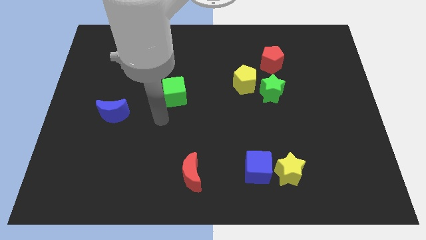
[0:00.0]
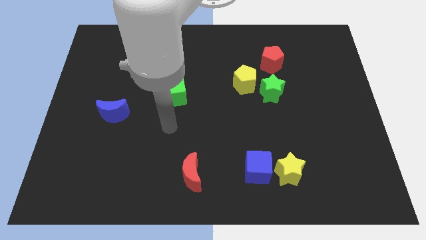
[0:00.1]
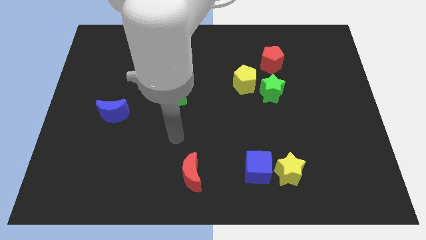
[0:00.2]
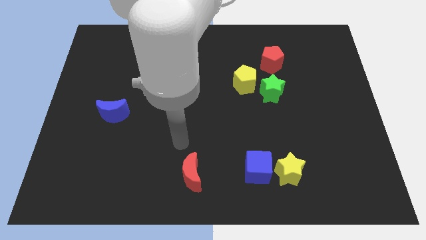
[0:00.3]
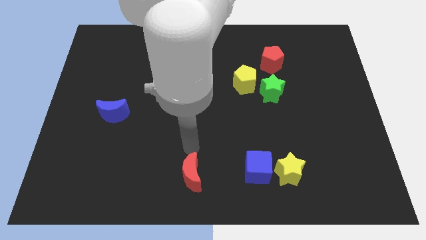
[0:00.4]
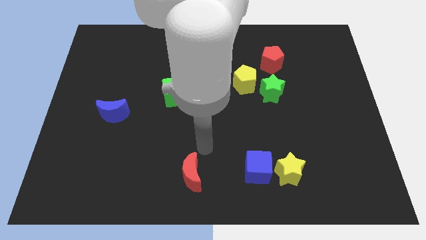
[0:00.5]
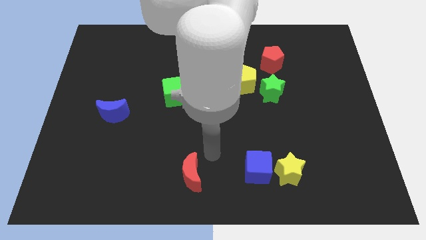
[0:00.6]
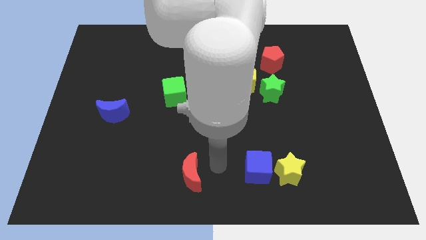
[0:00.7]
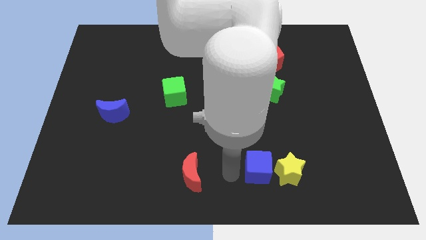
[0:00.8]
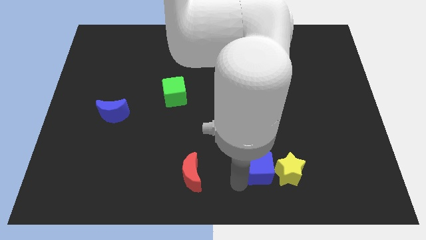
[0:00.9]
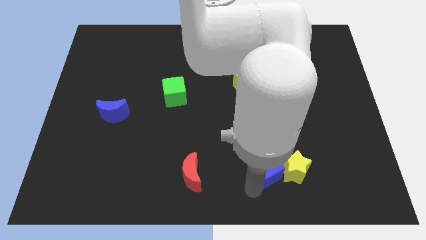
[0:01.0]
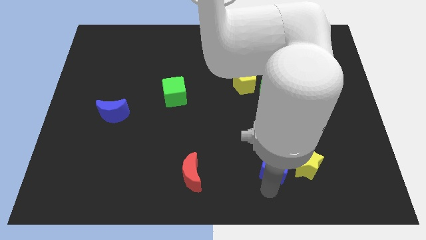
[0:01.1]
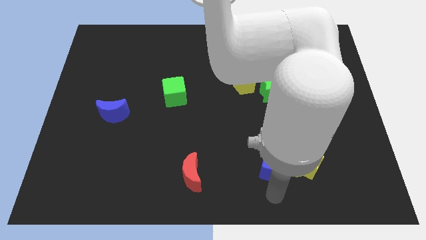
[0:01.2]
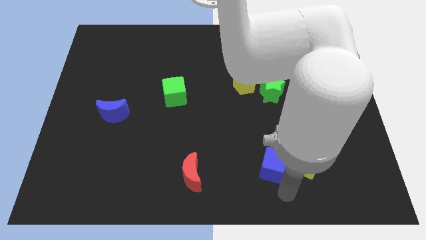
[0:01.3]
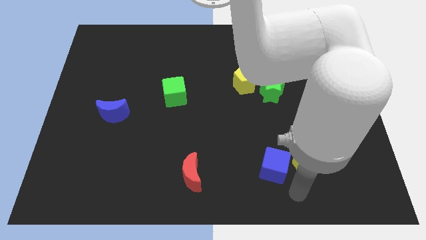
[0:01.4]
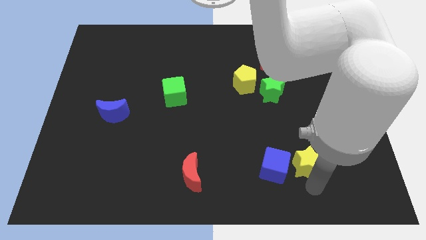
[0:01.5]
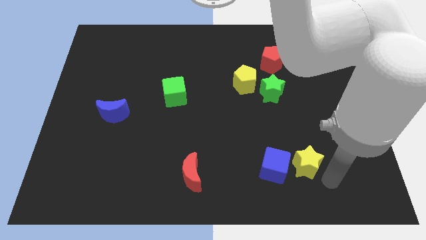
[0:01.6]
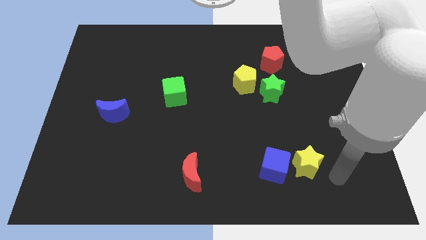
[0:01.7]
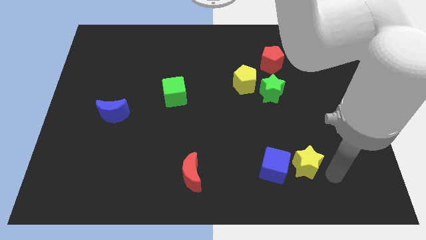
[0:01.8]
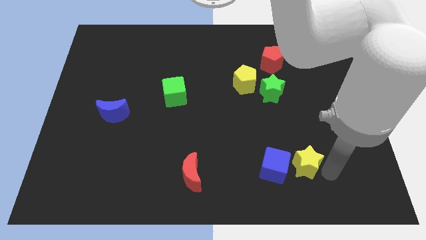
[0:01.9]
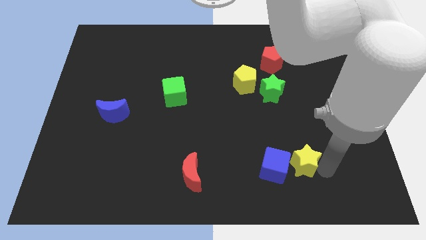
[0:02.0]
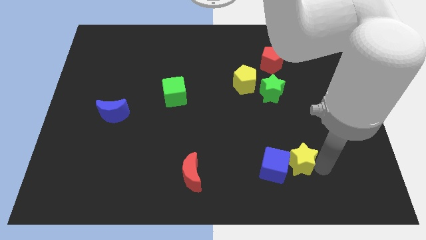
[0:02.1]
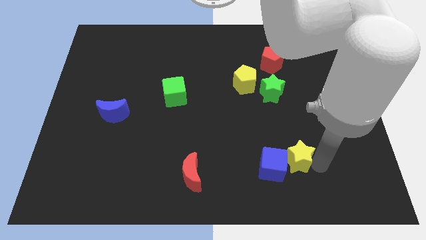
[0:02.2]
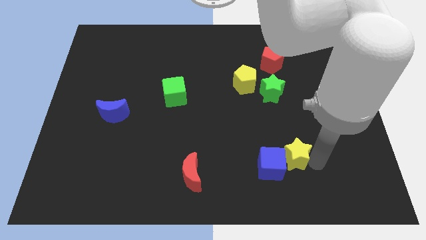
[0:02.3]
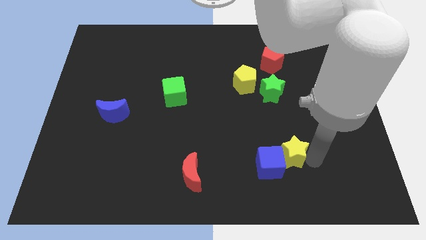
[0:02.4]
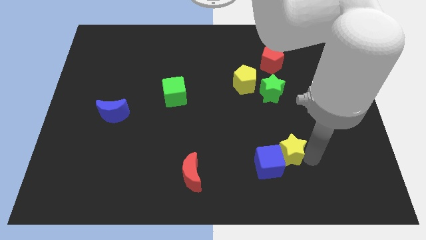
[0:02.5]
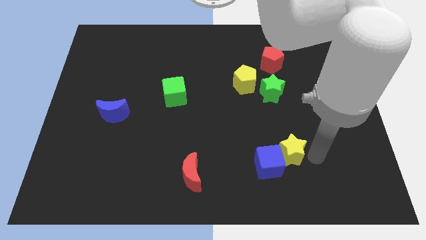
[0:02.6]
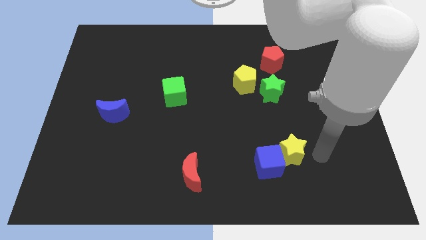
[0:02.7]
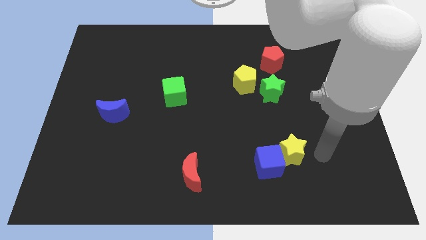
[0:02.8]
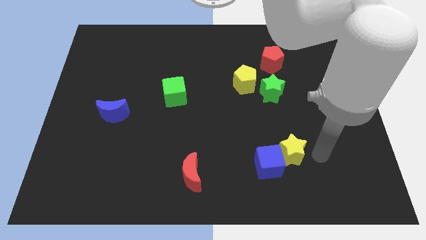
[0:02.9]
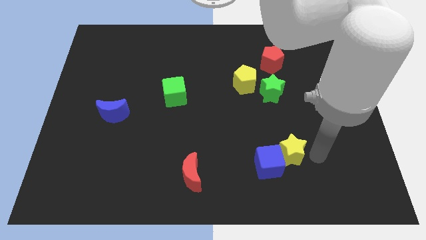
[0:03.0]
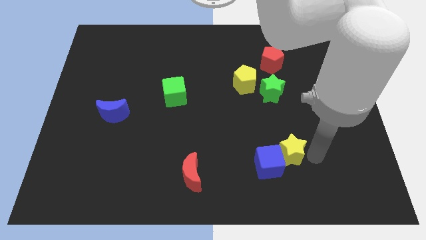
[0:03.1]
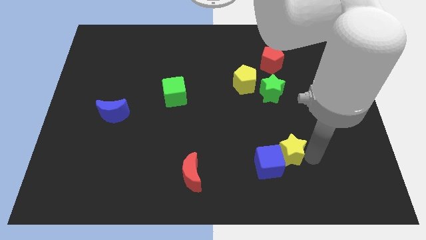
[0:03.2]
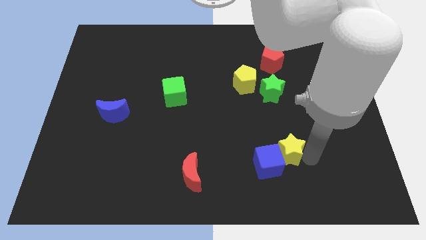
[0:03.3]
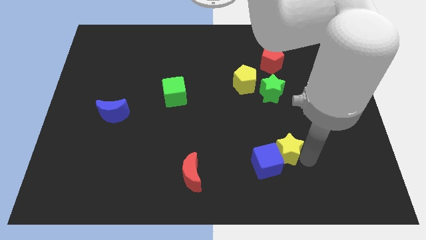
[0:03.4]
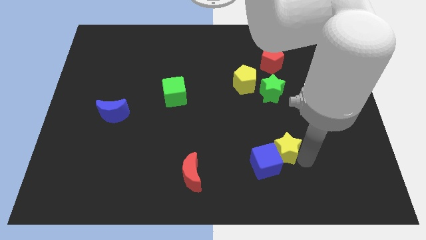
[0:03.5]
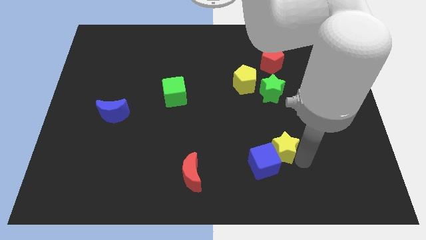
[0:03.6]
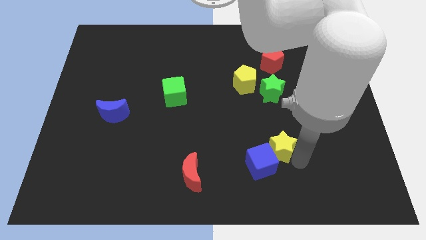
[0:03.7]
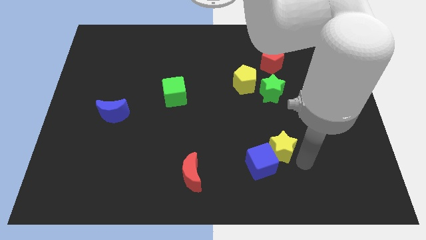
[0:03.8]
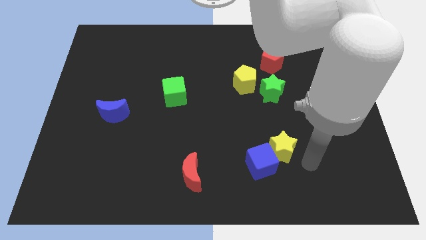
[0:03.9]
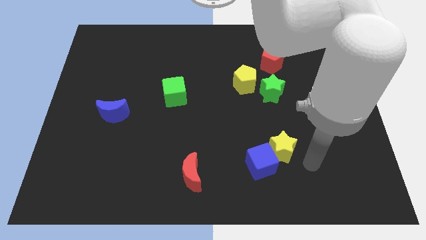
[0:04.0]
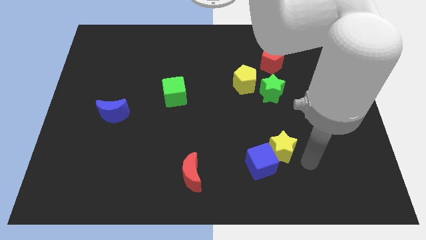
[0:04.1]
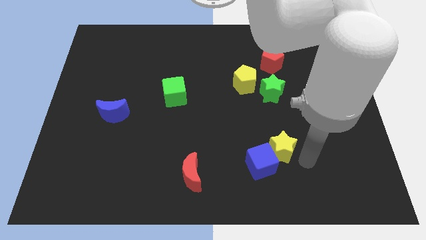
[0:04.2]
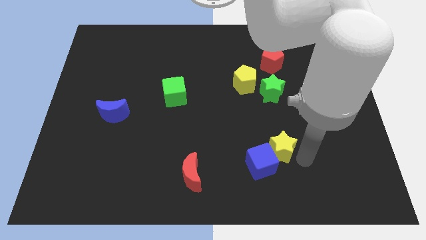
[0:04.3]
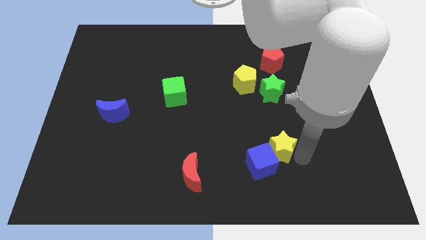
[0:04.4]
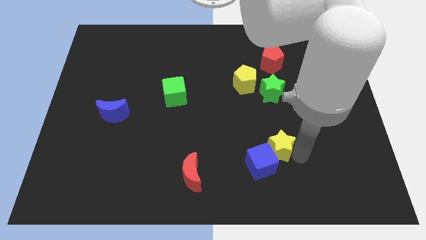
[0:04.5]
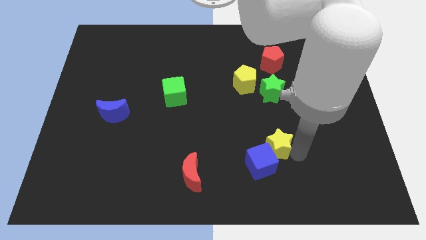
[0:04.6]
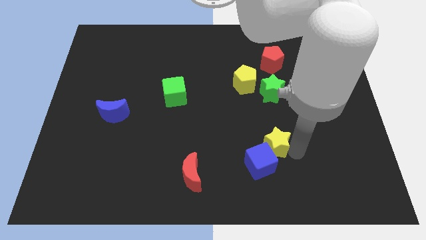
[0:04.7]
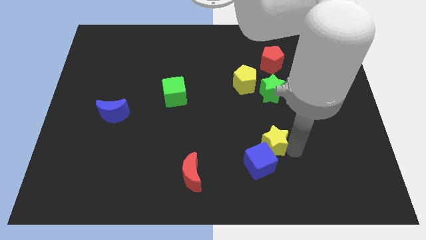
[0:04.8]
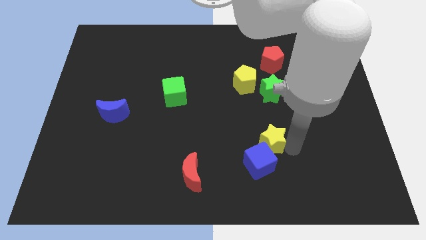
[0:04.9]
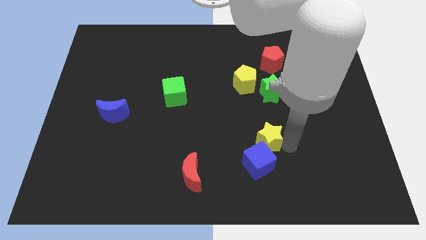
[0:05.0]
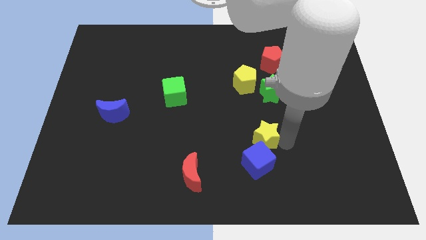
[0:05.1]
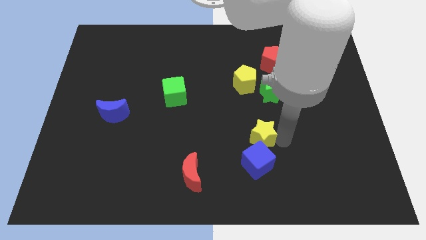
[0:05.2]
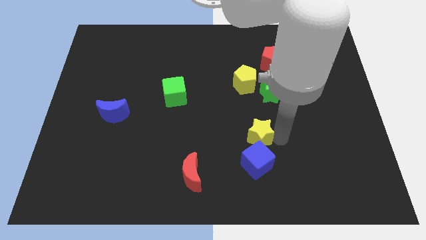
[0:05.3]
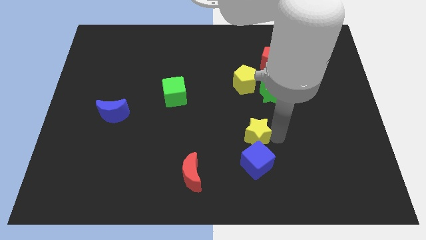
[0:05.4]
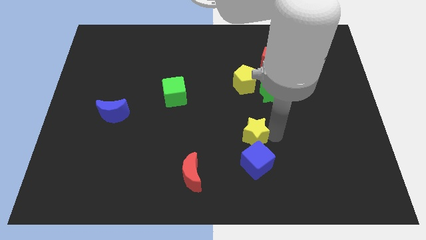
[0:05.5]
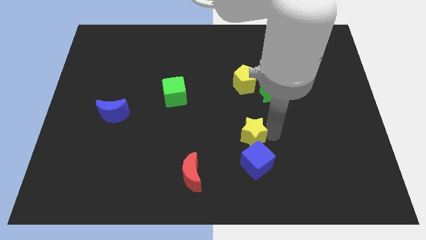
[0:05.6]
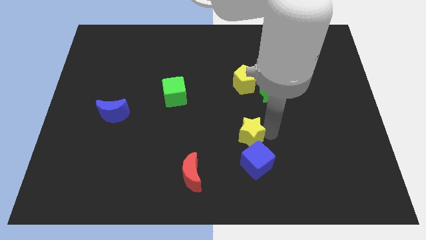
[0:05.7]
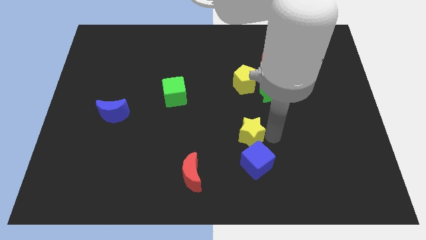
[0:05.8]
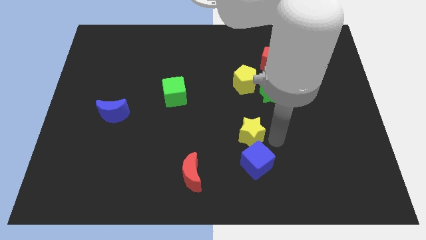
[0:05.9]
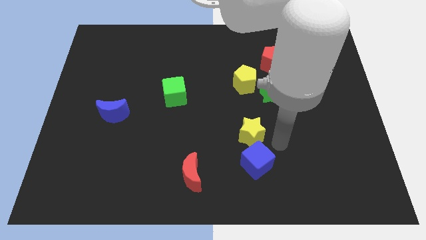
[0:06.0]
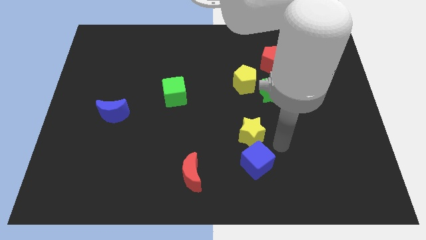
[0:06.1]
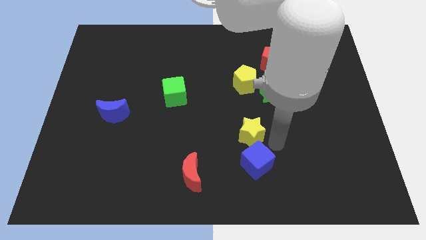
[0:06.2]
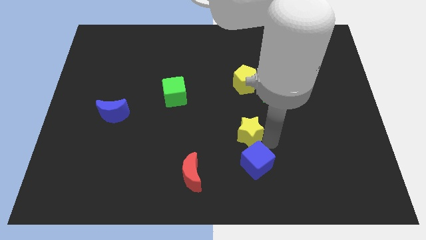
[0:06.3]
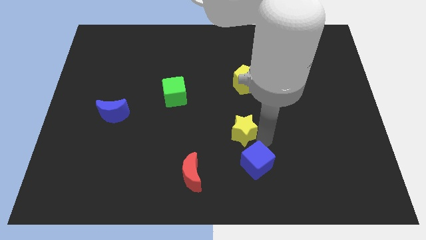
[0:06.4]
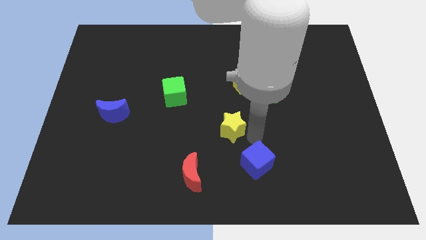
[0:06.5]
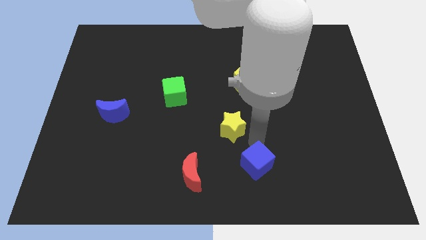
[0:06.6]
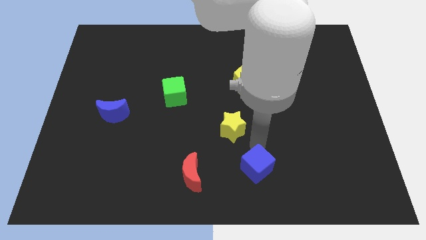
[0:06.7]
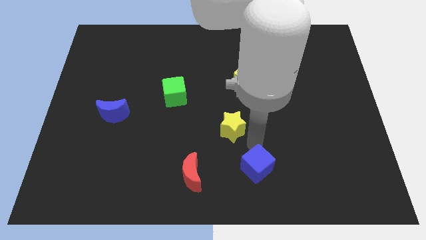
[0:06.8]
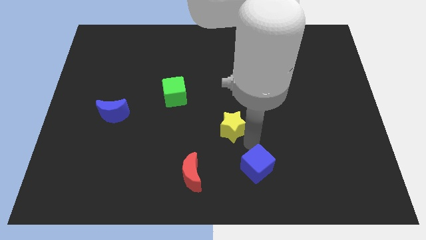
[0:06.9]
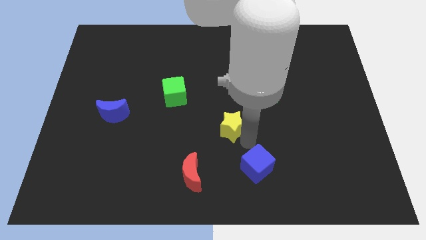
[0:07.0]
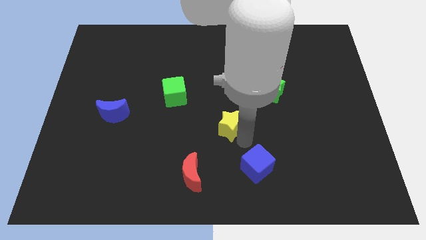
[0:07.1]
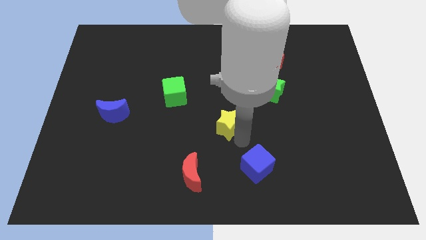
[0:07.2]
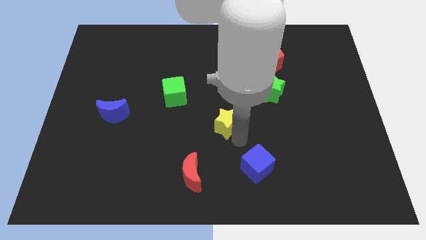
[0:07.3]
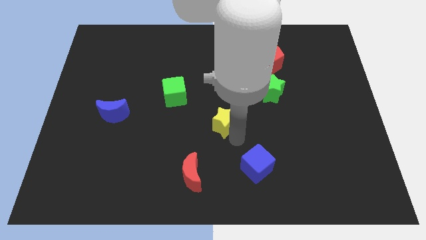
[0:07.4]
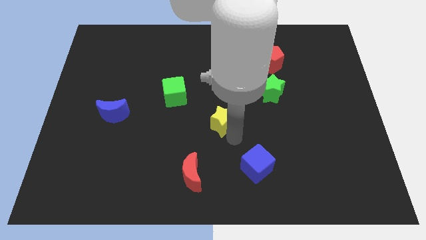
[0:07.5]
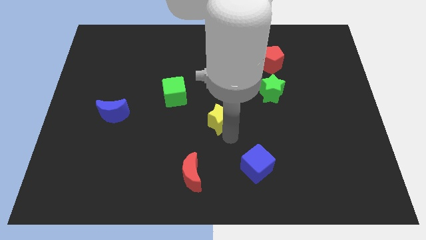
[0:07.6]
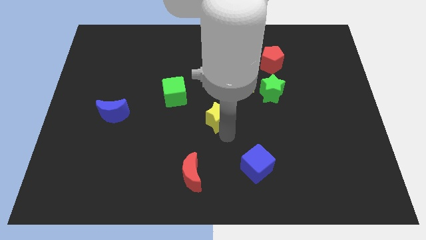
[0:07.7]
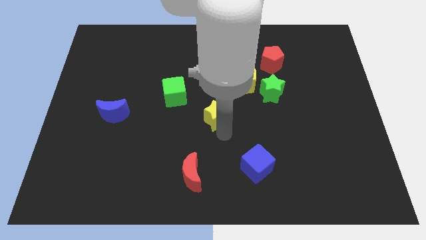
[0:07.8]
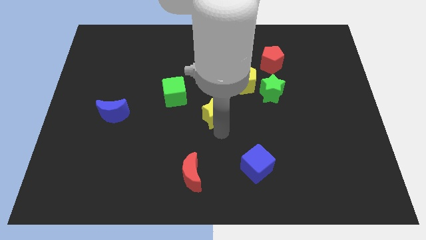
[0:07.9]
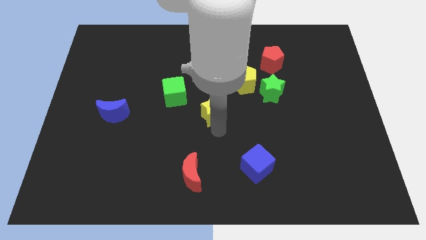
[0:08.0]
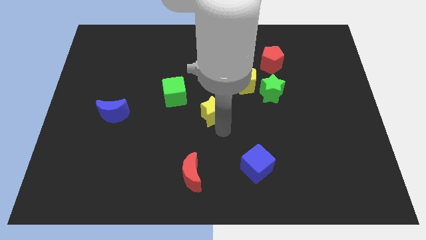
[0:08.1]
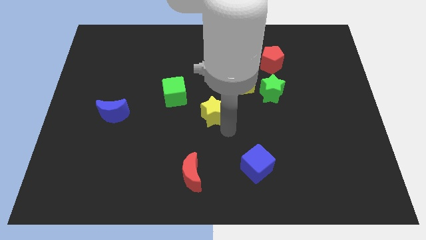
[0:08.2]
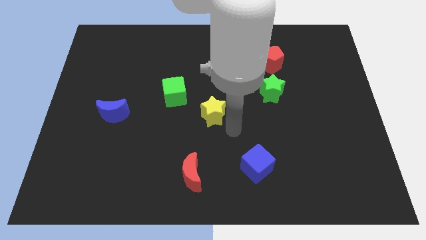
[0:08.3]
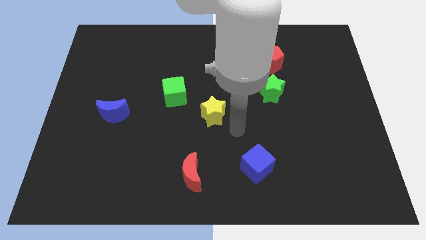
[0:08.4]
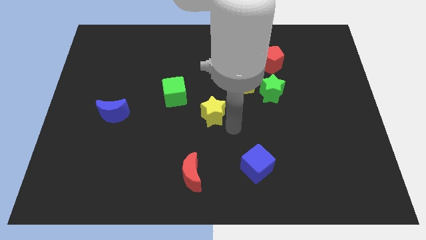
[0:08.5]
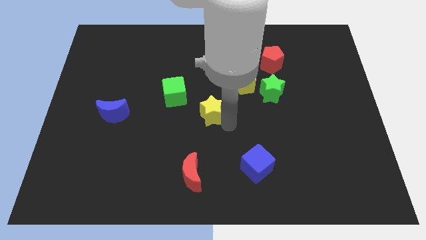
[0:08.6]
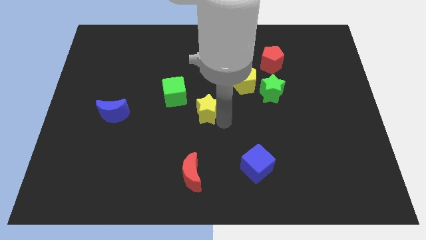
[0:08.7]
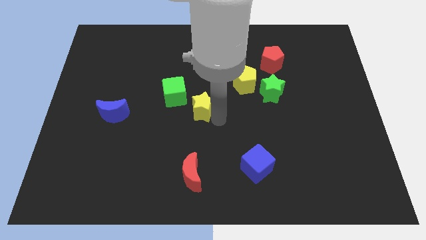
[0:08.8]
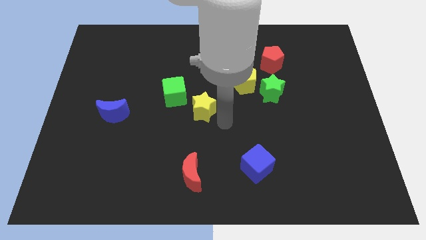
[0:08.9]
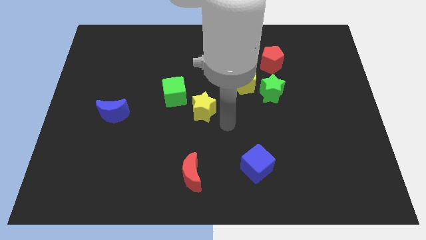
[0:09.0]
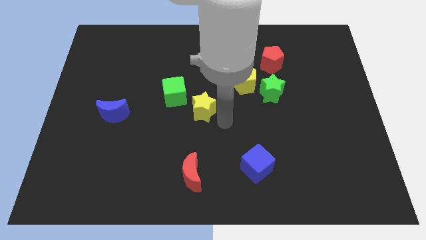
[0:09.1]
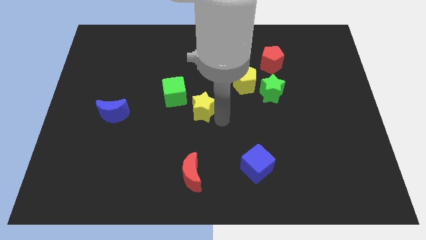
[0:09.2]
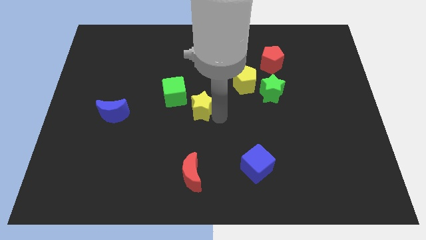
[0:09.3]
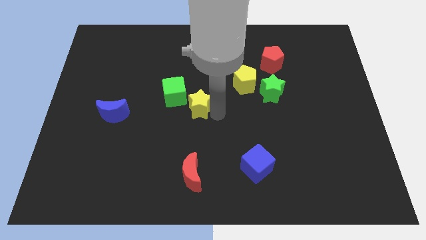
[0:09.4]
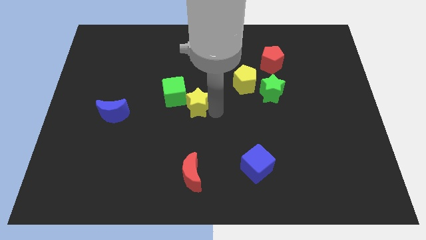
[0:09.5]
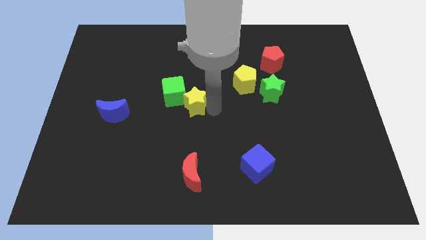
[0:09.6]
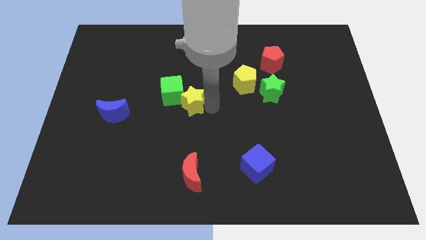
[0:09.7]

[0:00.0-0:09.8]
put the yellow star next to the green cube
